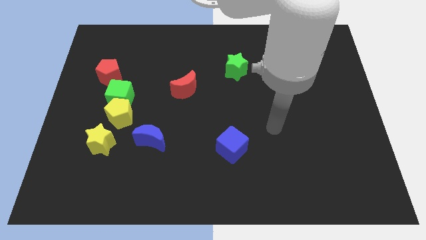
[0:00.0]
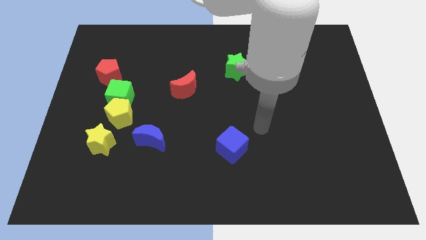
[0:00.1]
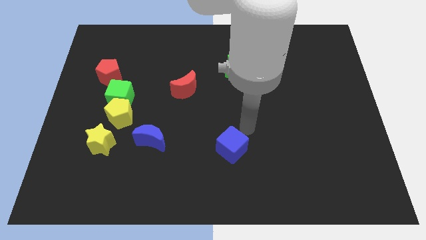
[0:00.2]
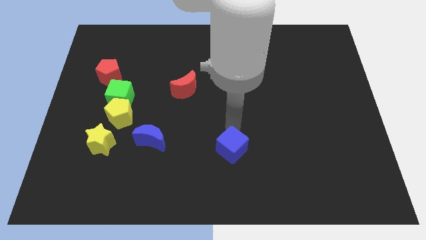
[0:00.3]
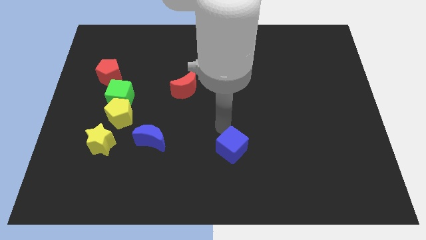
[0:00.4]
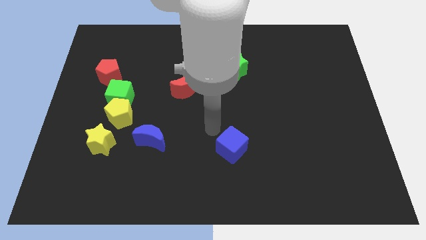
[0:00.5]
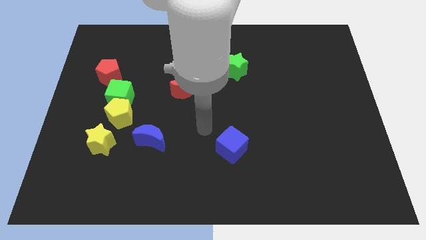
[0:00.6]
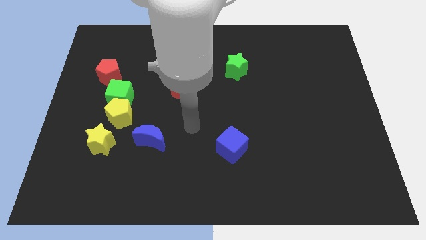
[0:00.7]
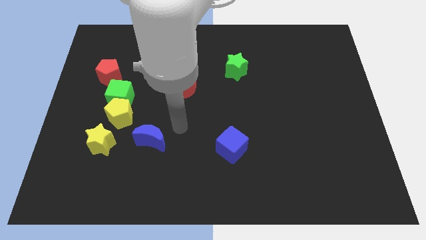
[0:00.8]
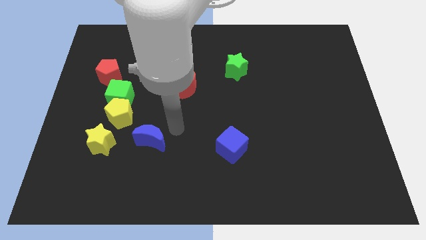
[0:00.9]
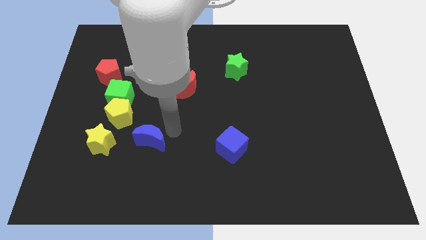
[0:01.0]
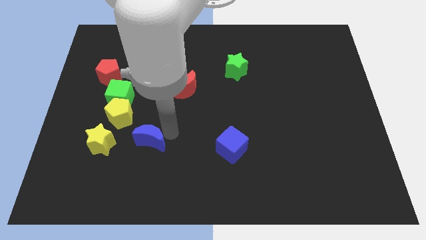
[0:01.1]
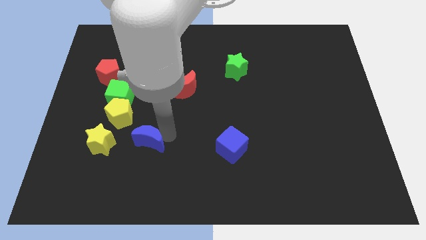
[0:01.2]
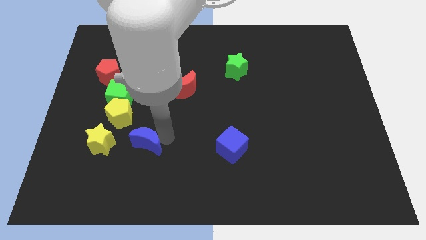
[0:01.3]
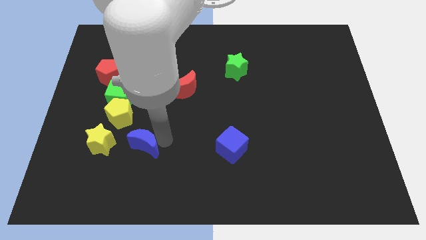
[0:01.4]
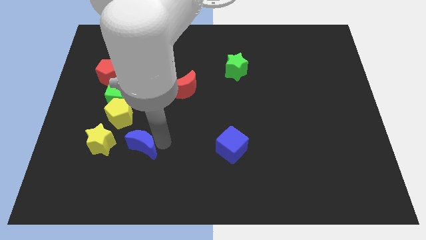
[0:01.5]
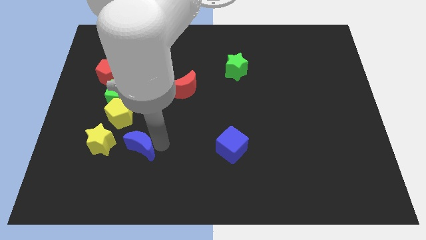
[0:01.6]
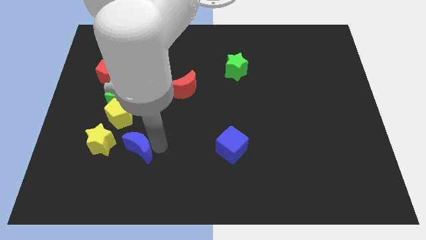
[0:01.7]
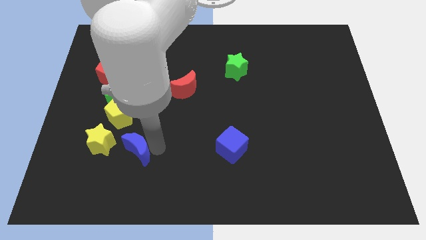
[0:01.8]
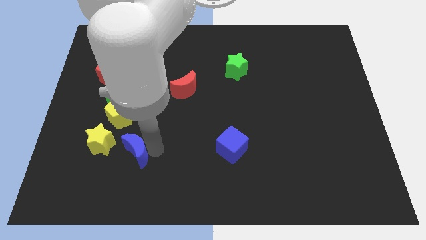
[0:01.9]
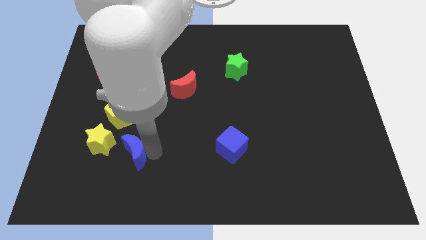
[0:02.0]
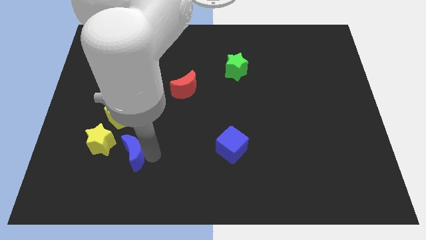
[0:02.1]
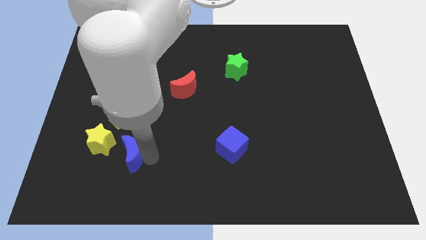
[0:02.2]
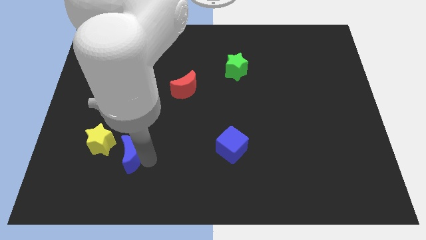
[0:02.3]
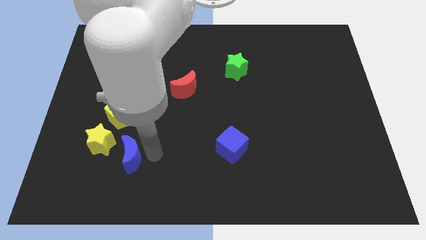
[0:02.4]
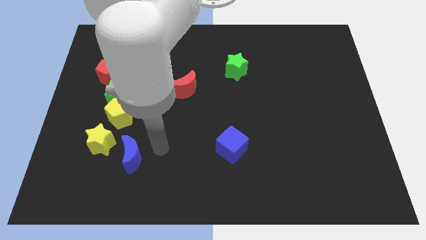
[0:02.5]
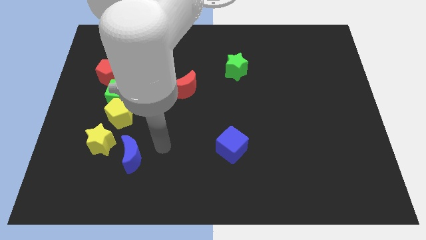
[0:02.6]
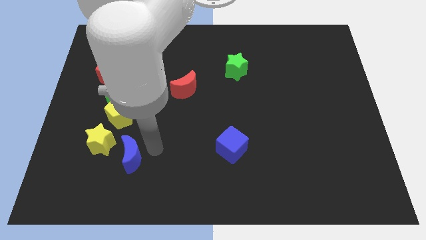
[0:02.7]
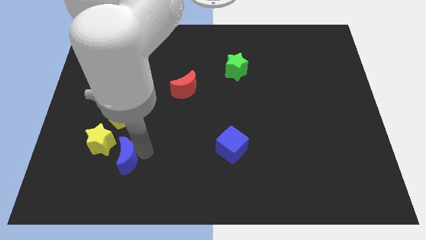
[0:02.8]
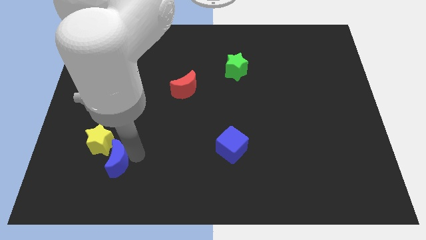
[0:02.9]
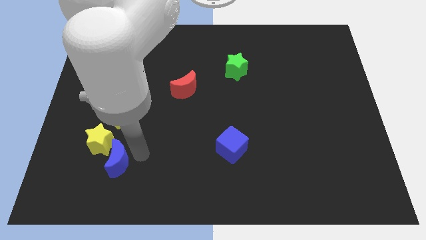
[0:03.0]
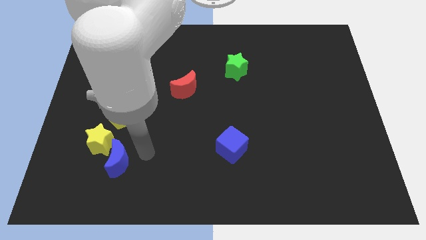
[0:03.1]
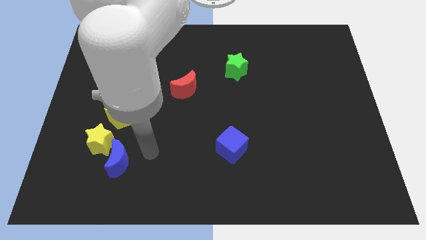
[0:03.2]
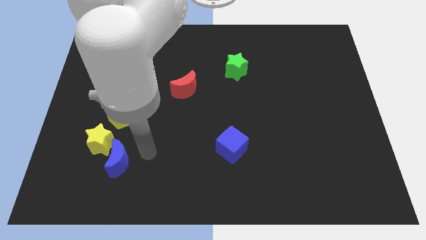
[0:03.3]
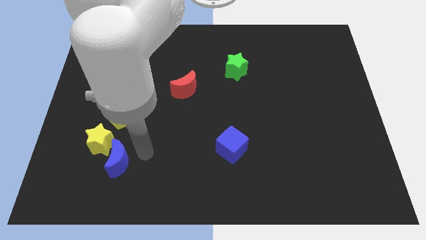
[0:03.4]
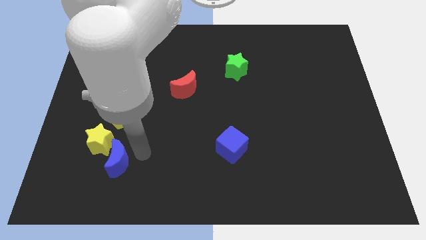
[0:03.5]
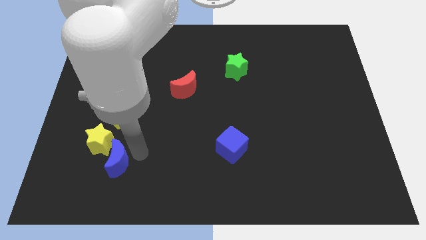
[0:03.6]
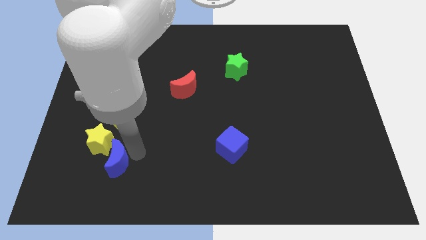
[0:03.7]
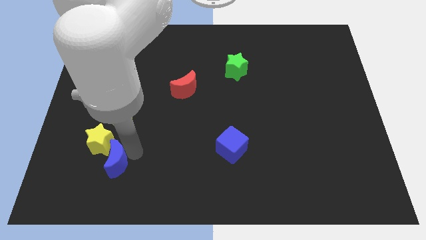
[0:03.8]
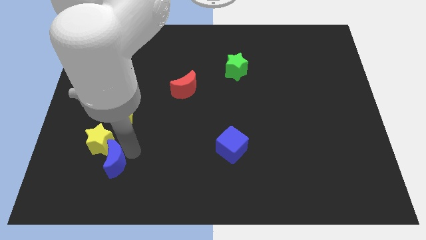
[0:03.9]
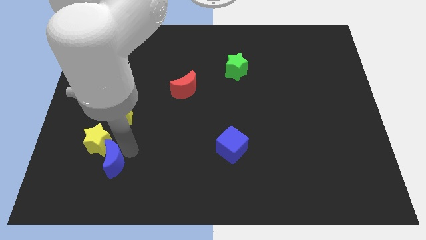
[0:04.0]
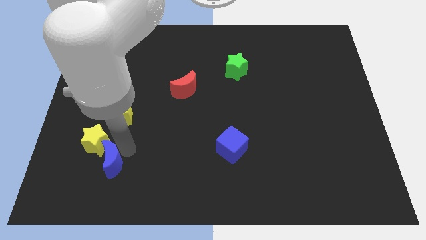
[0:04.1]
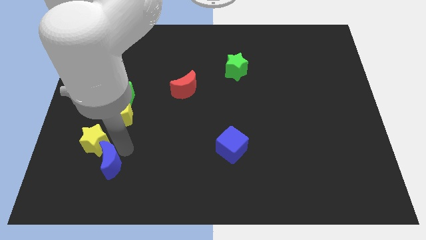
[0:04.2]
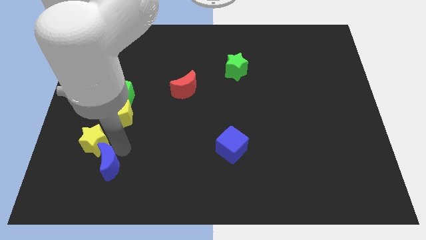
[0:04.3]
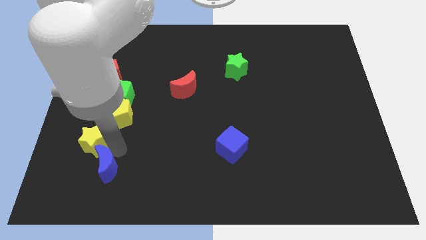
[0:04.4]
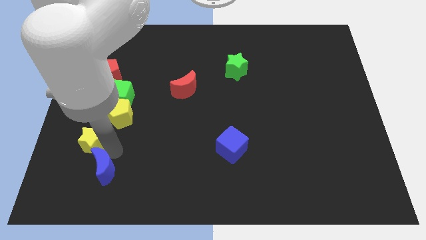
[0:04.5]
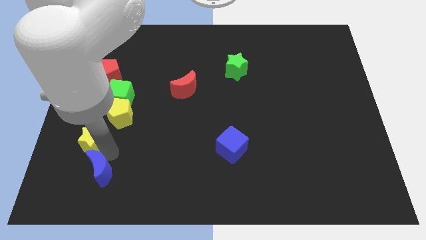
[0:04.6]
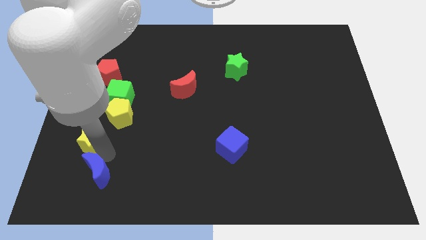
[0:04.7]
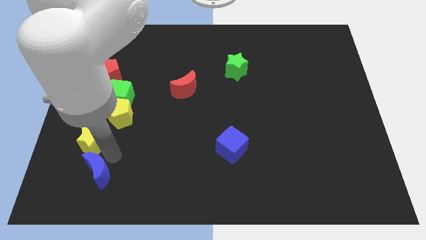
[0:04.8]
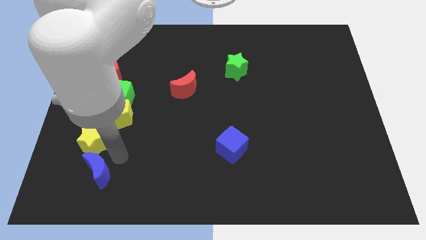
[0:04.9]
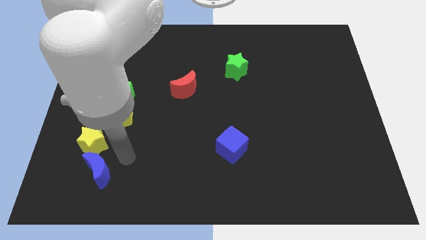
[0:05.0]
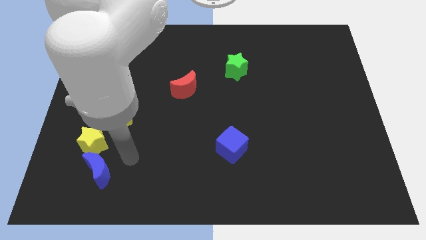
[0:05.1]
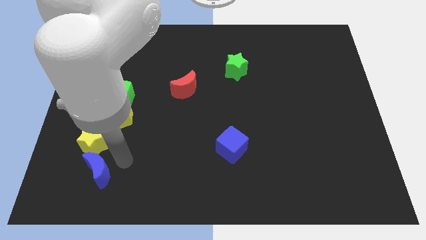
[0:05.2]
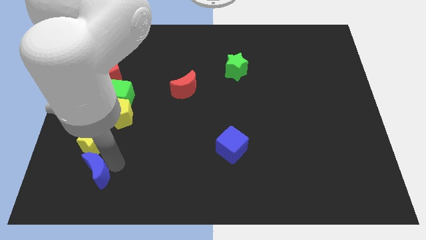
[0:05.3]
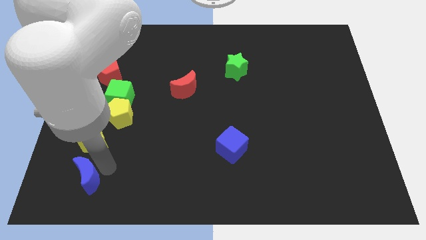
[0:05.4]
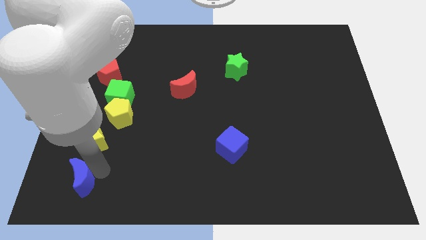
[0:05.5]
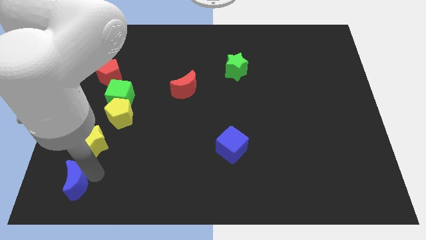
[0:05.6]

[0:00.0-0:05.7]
slide the blue moon to the bottom left of the board
